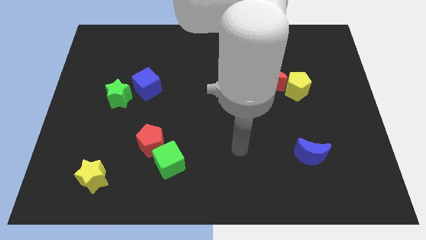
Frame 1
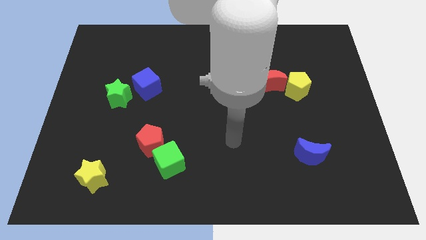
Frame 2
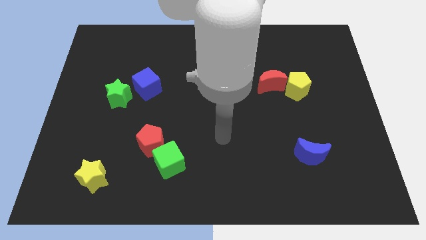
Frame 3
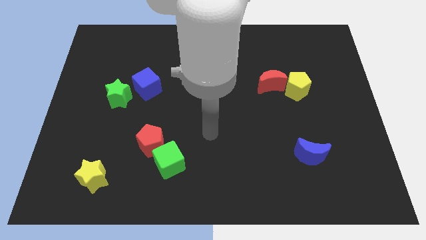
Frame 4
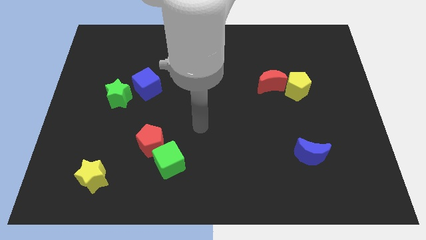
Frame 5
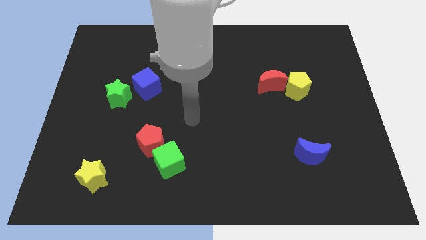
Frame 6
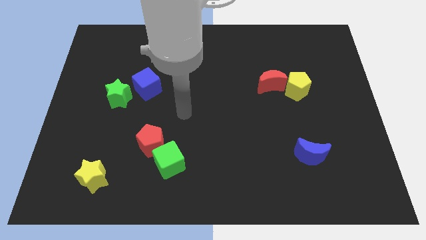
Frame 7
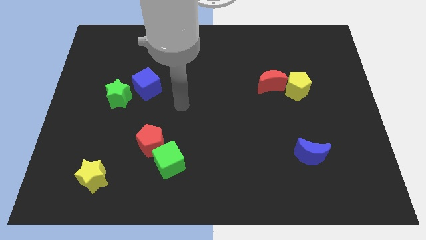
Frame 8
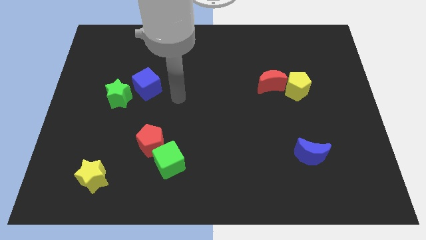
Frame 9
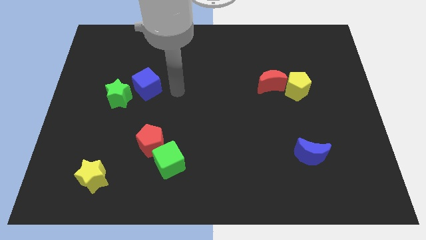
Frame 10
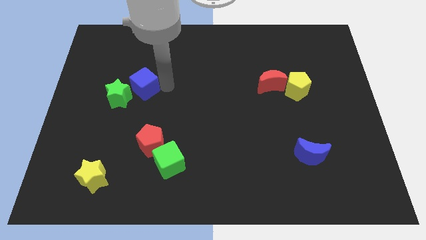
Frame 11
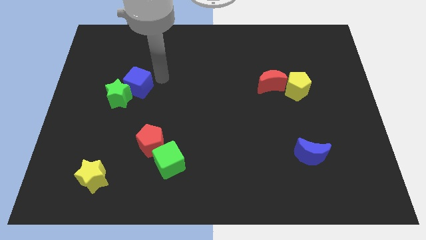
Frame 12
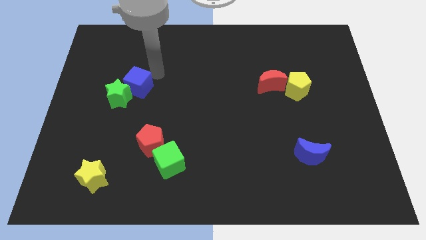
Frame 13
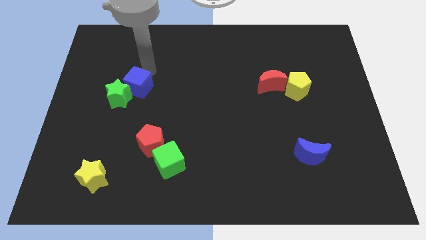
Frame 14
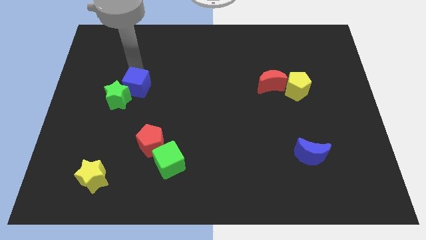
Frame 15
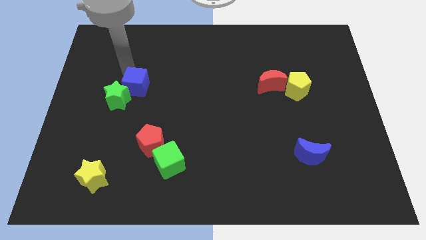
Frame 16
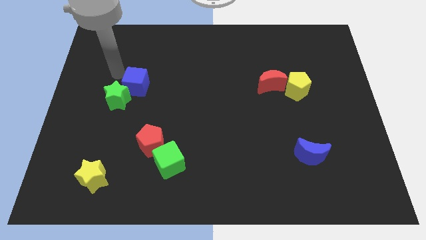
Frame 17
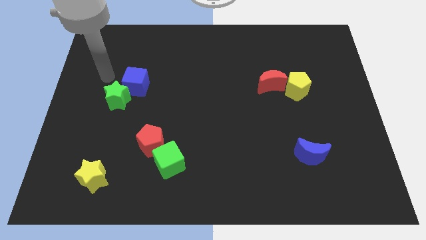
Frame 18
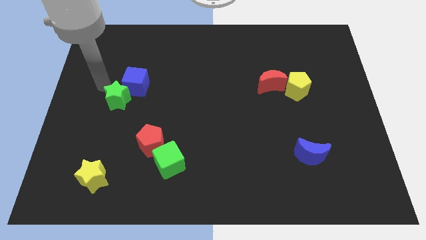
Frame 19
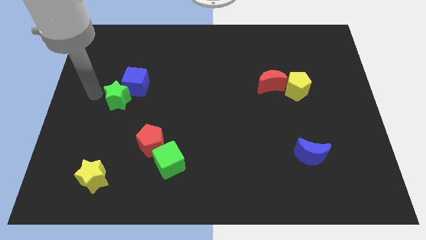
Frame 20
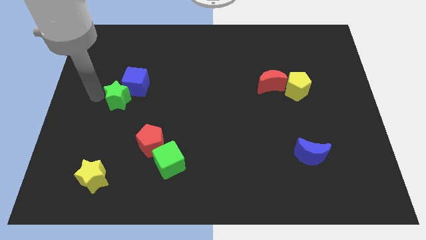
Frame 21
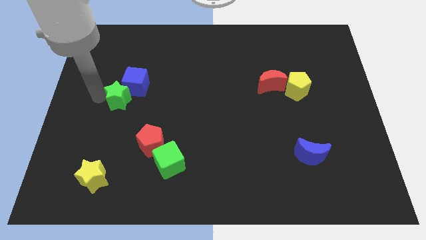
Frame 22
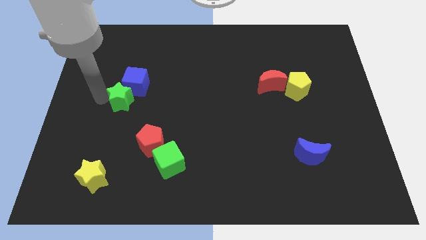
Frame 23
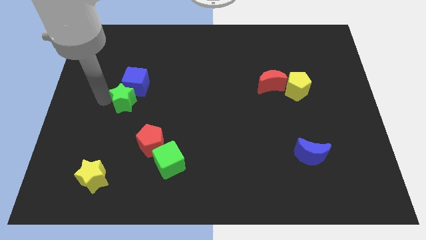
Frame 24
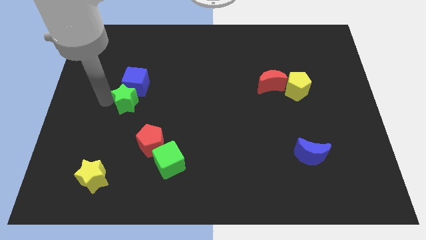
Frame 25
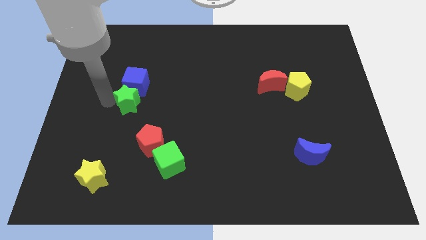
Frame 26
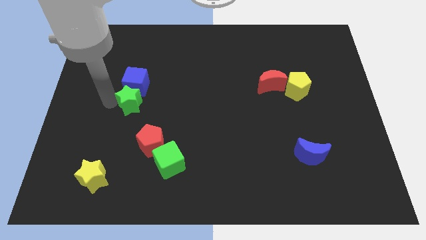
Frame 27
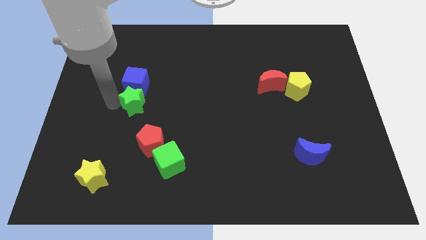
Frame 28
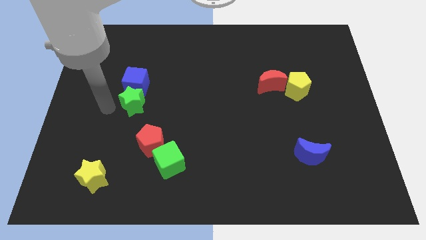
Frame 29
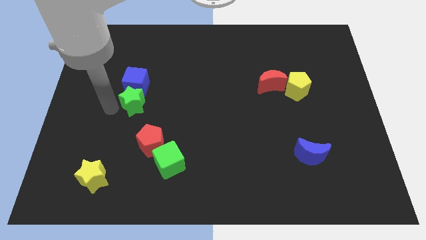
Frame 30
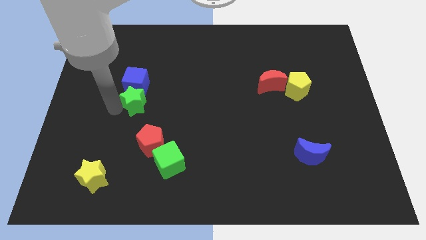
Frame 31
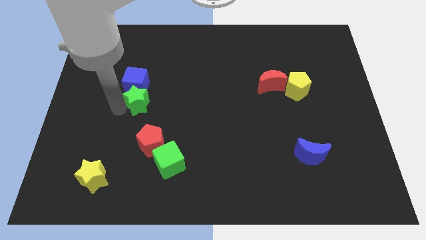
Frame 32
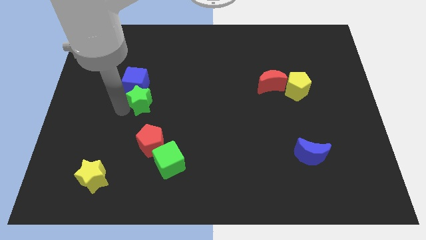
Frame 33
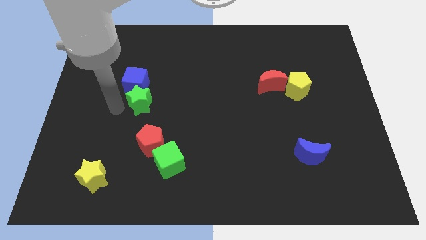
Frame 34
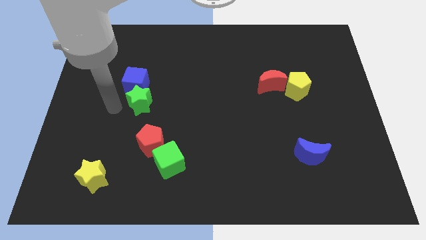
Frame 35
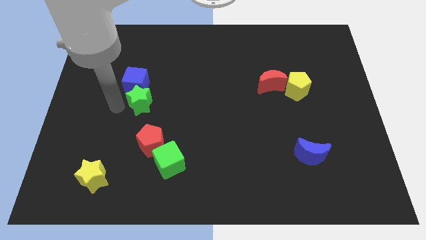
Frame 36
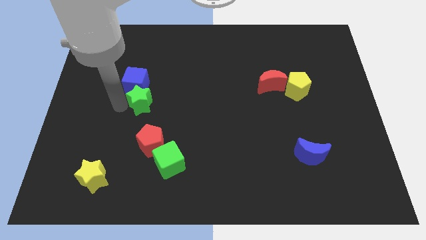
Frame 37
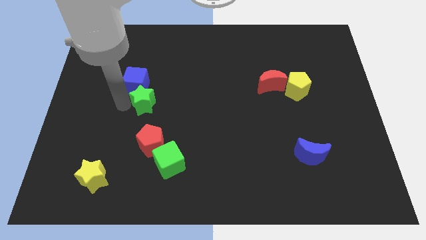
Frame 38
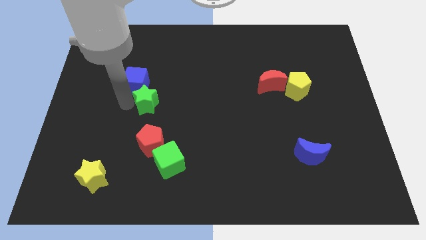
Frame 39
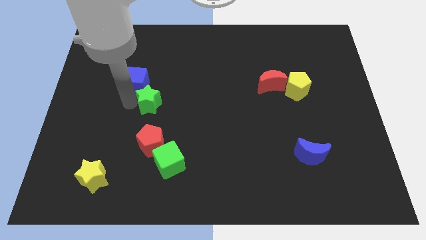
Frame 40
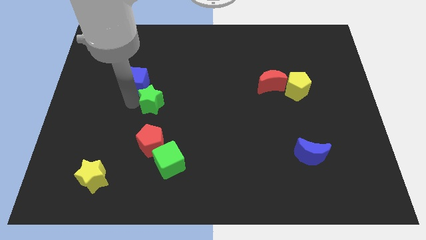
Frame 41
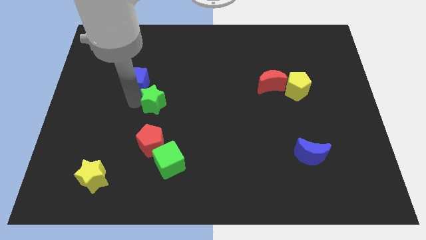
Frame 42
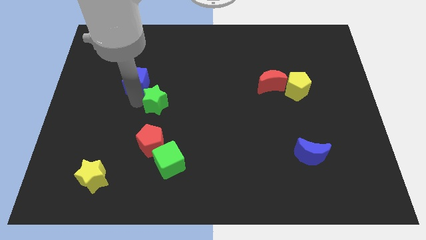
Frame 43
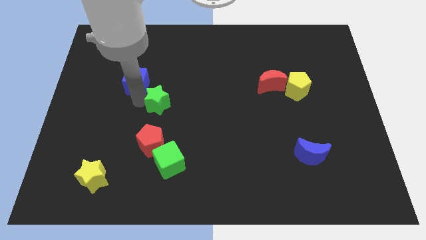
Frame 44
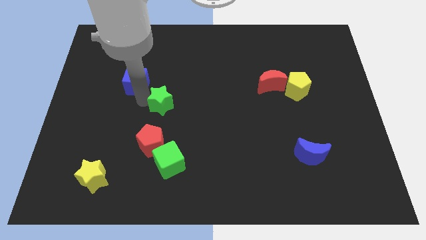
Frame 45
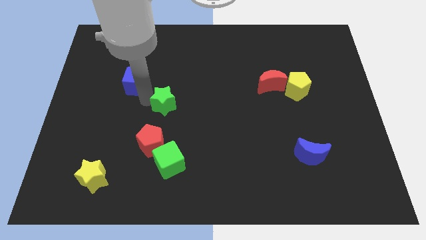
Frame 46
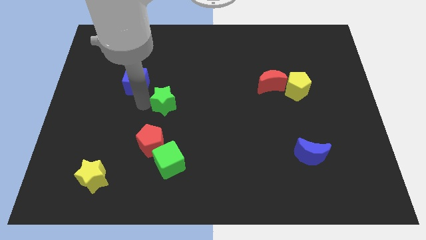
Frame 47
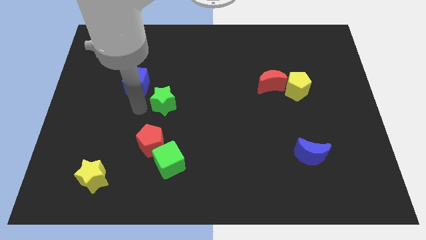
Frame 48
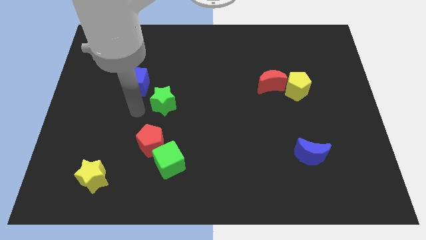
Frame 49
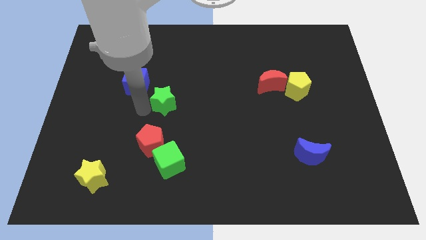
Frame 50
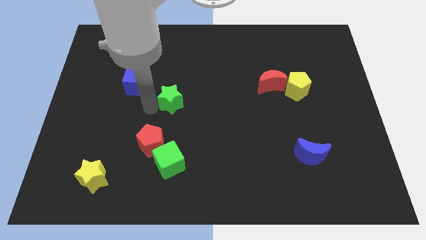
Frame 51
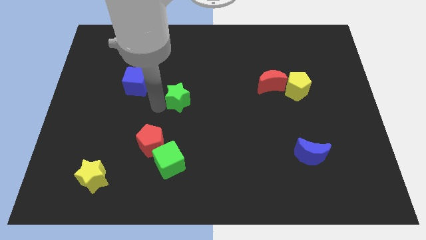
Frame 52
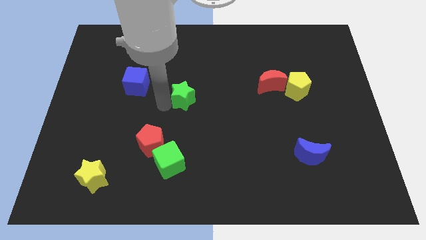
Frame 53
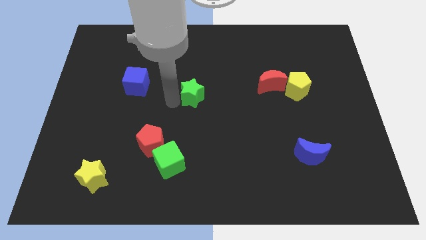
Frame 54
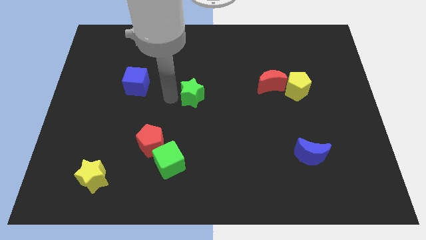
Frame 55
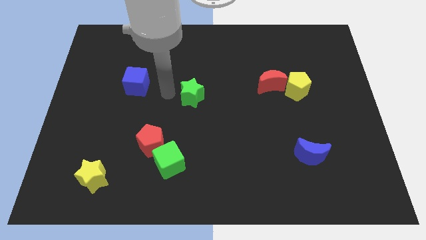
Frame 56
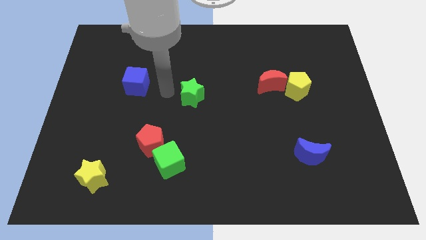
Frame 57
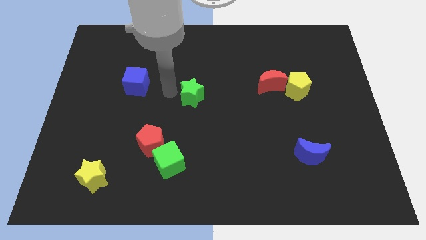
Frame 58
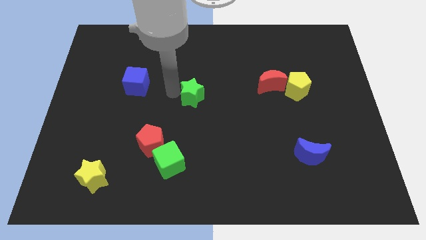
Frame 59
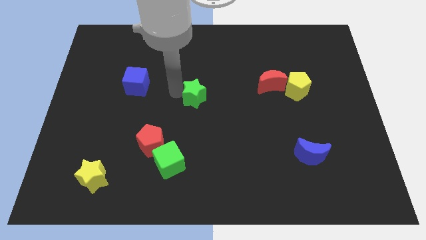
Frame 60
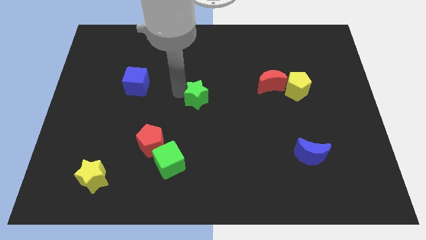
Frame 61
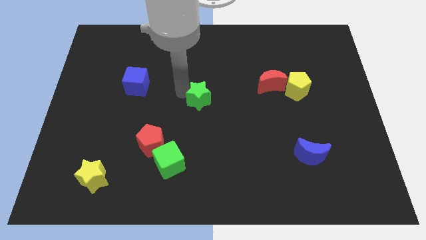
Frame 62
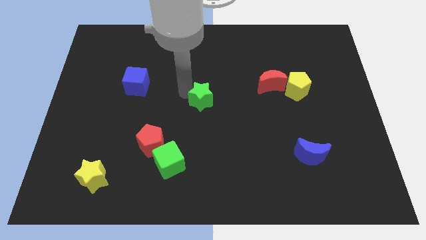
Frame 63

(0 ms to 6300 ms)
slide the green star right

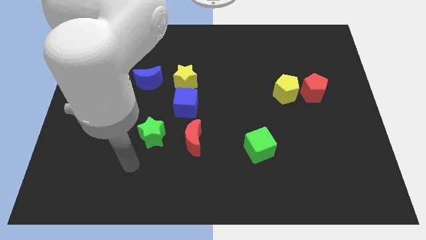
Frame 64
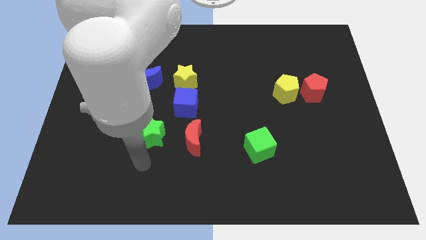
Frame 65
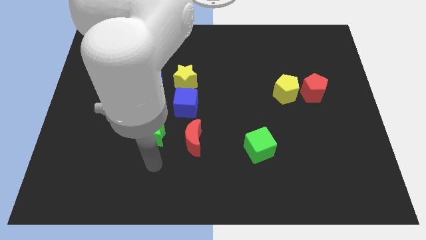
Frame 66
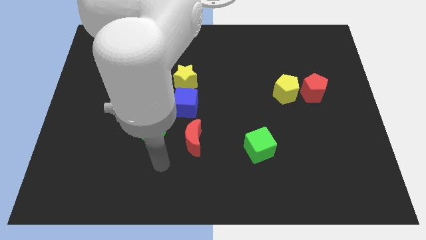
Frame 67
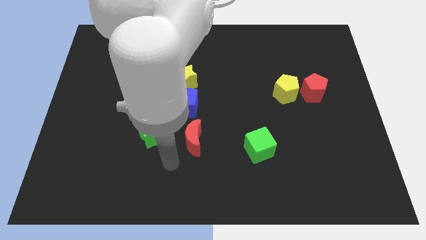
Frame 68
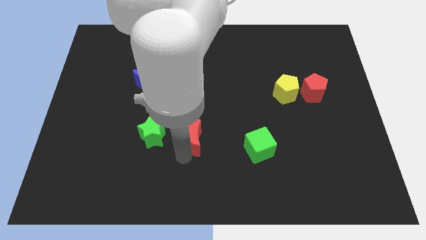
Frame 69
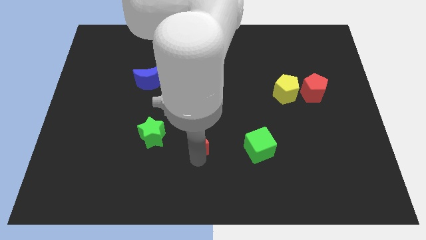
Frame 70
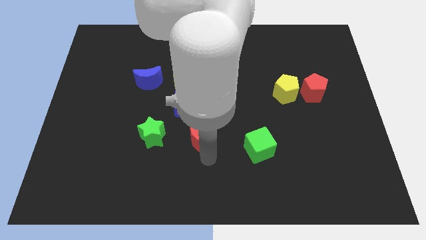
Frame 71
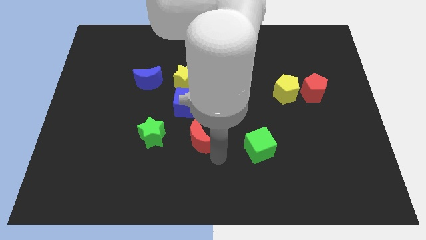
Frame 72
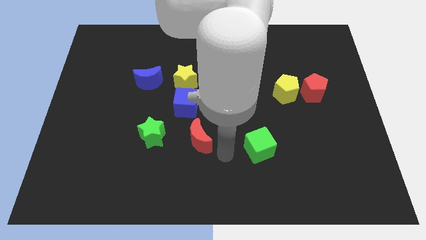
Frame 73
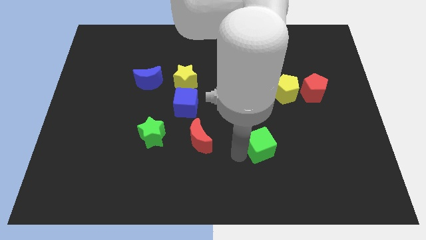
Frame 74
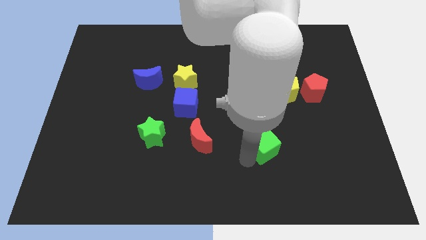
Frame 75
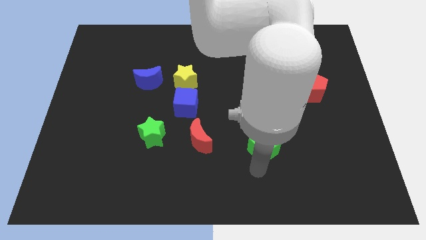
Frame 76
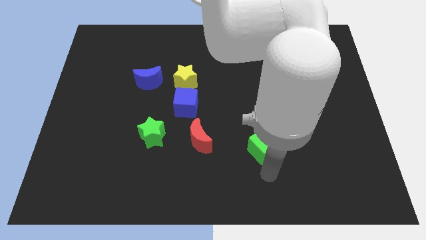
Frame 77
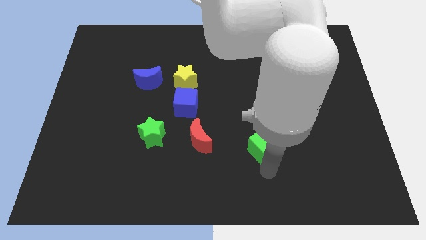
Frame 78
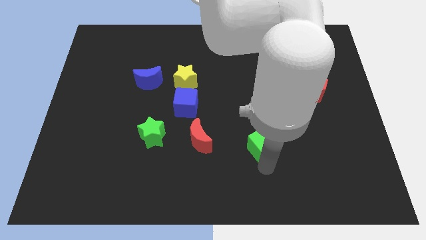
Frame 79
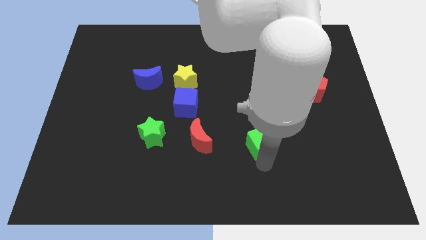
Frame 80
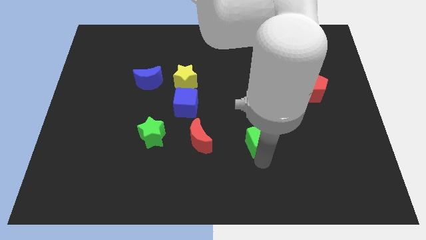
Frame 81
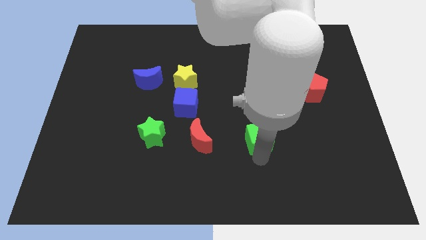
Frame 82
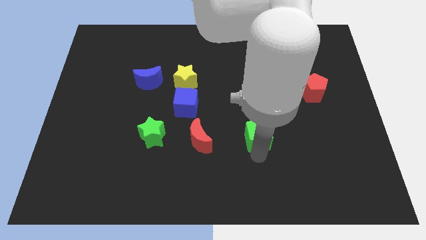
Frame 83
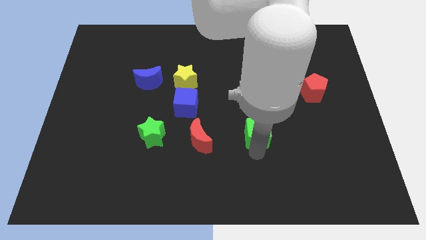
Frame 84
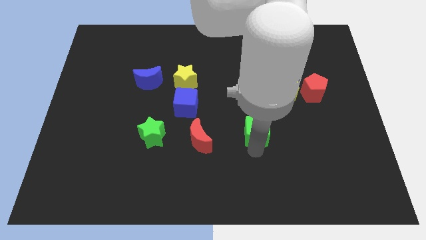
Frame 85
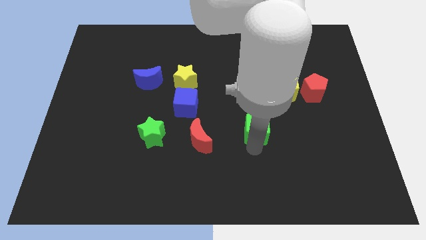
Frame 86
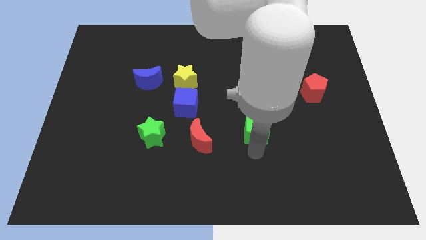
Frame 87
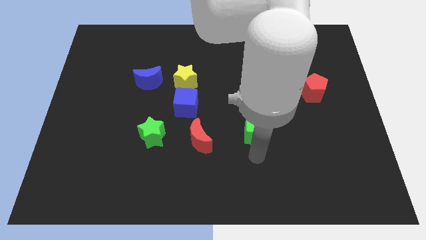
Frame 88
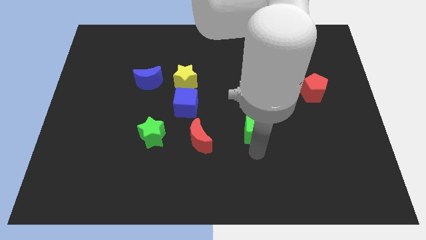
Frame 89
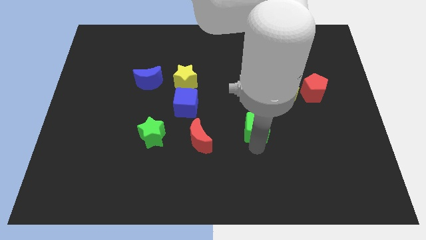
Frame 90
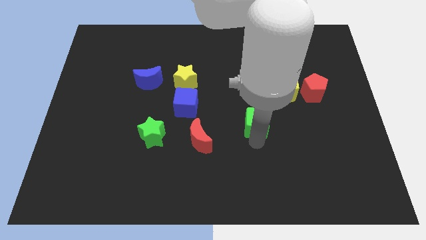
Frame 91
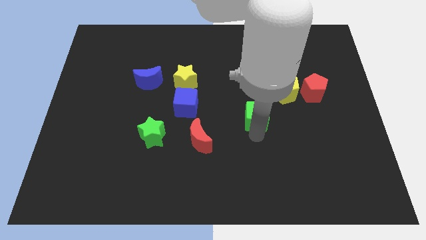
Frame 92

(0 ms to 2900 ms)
slightly move the green cube up
